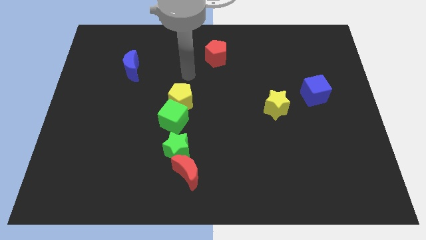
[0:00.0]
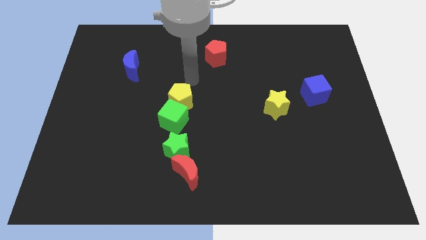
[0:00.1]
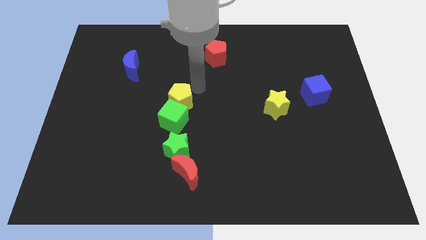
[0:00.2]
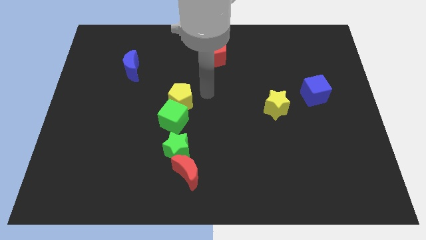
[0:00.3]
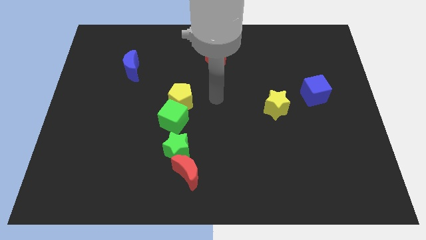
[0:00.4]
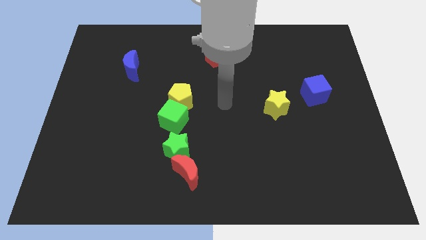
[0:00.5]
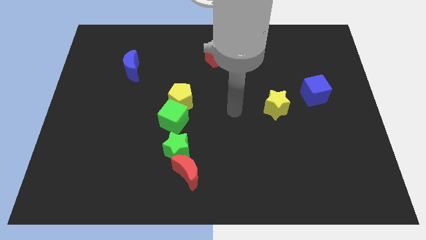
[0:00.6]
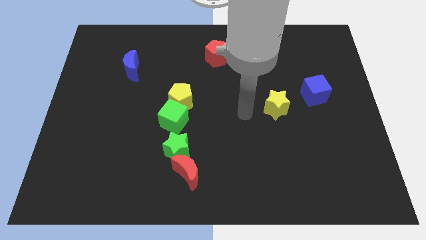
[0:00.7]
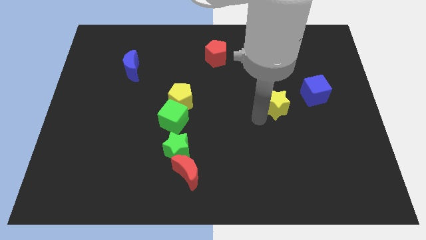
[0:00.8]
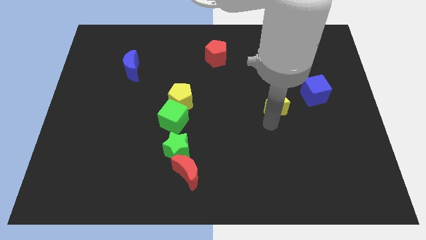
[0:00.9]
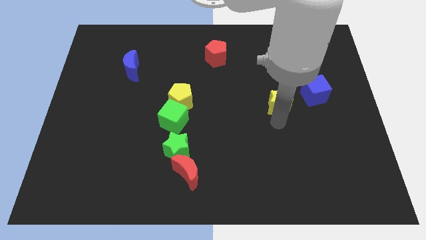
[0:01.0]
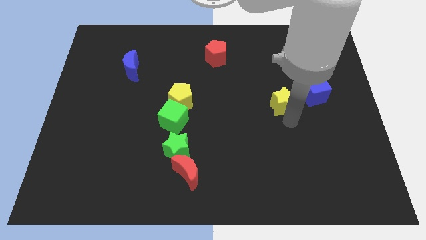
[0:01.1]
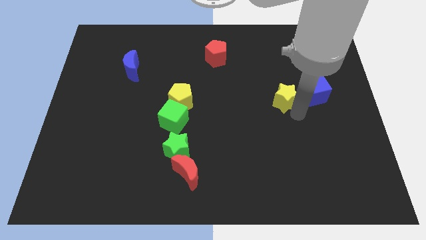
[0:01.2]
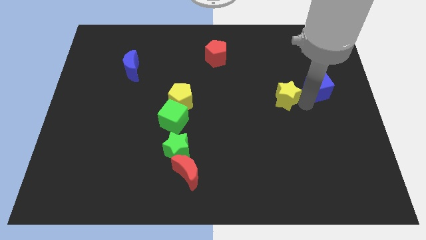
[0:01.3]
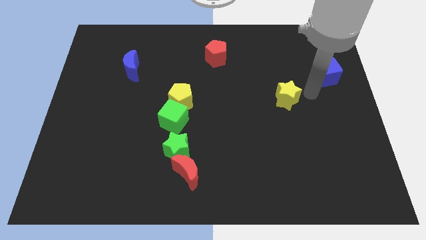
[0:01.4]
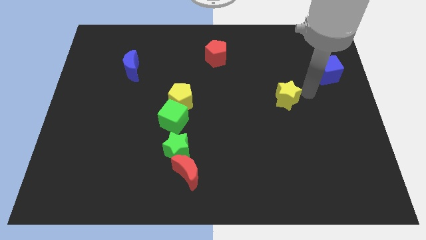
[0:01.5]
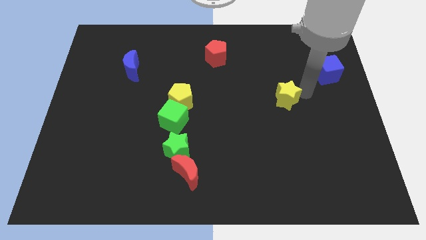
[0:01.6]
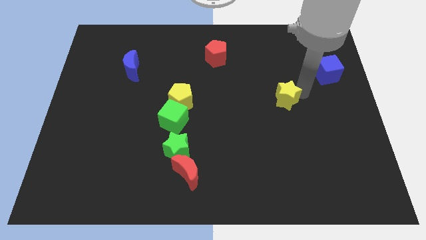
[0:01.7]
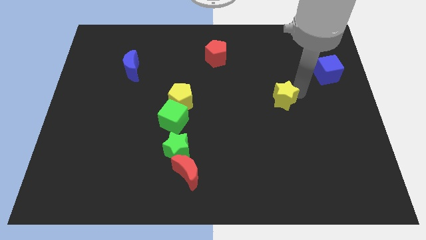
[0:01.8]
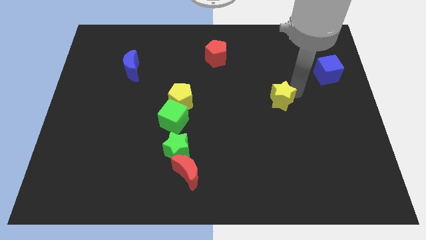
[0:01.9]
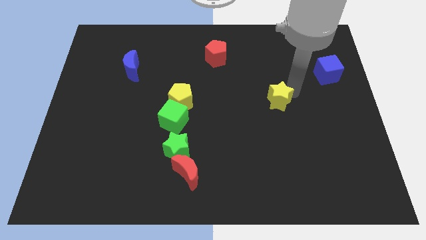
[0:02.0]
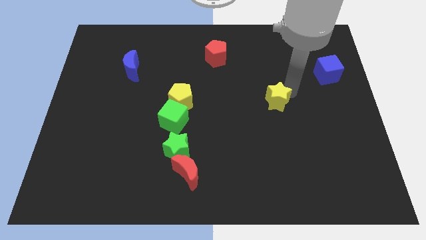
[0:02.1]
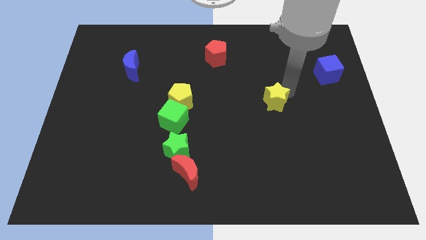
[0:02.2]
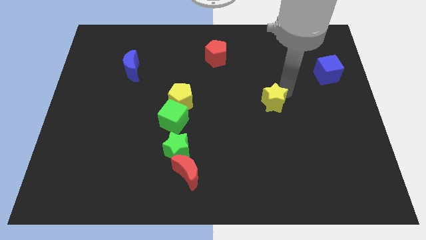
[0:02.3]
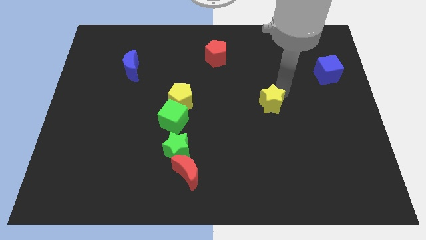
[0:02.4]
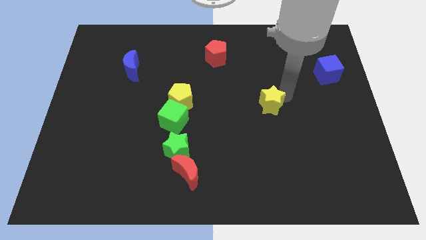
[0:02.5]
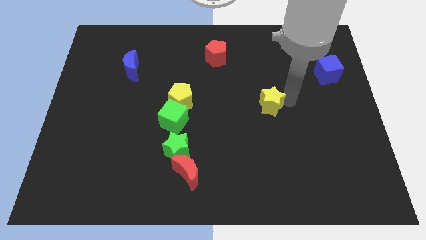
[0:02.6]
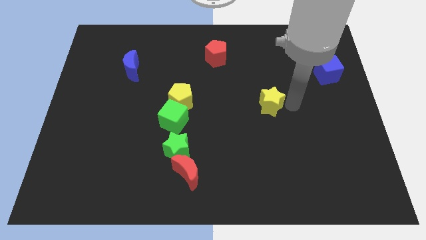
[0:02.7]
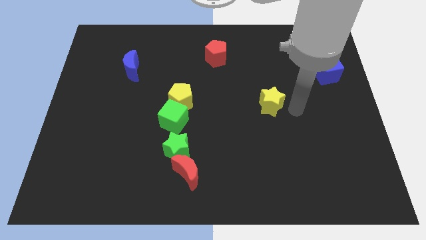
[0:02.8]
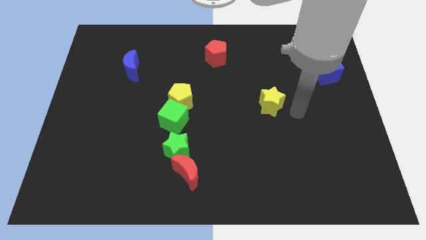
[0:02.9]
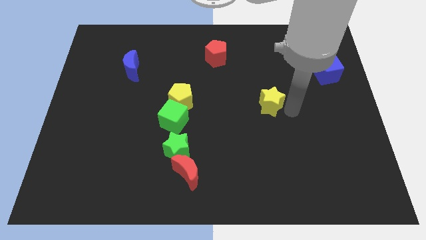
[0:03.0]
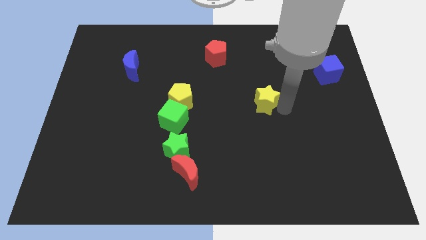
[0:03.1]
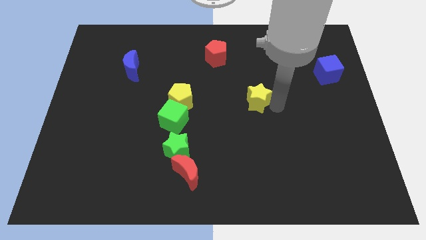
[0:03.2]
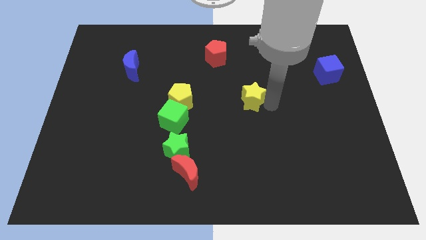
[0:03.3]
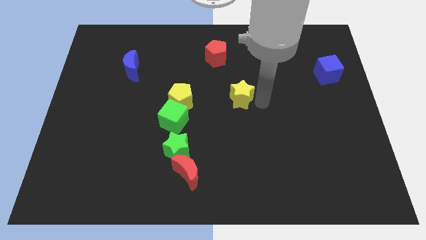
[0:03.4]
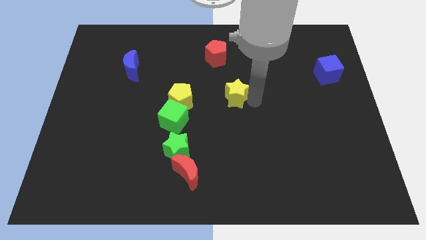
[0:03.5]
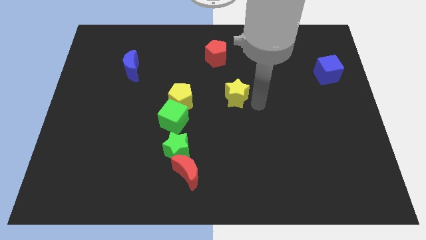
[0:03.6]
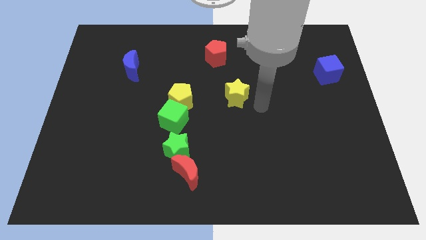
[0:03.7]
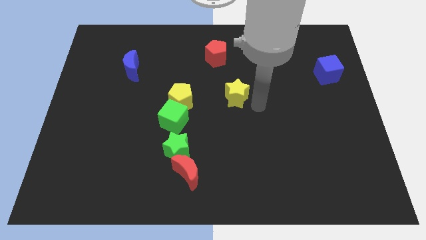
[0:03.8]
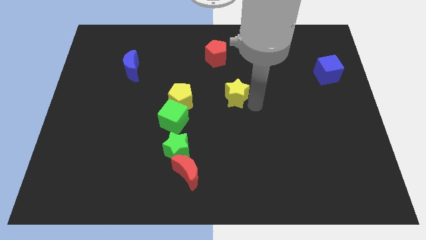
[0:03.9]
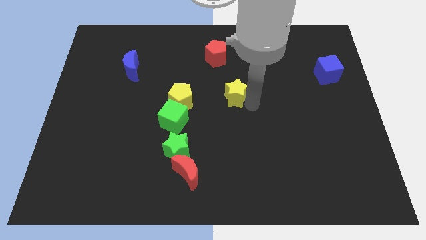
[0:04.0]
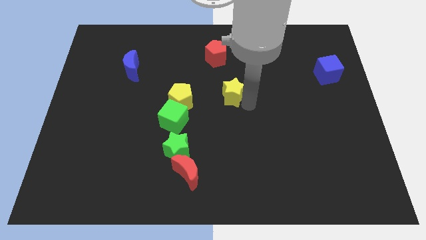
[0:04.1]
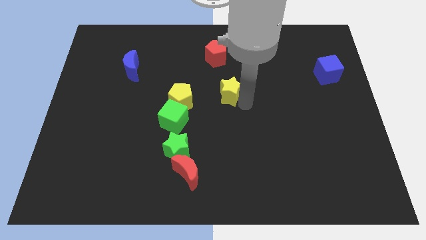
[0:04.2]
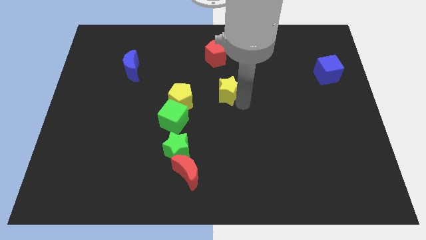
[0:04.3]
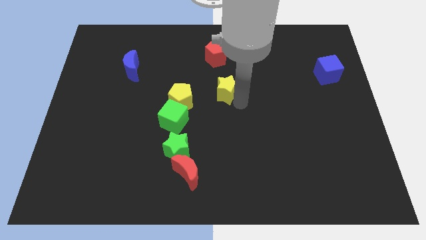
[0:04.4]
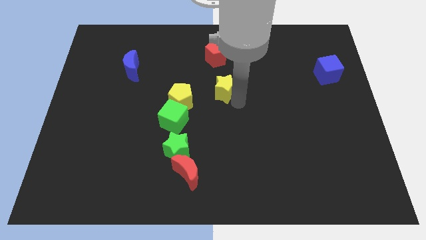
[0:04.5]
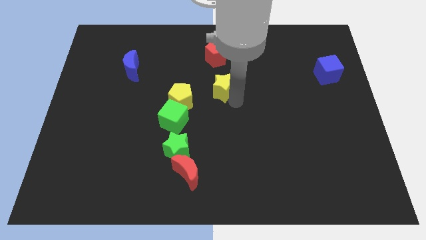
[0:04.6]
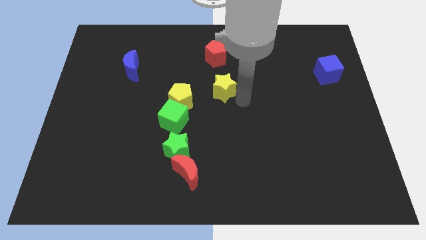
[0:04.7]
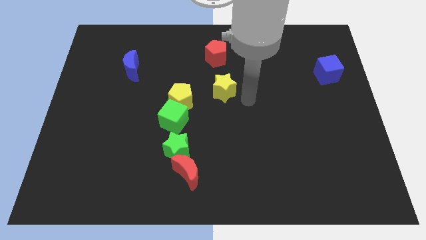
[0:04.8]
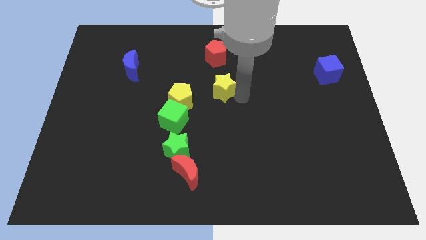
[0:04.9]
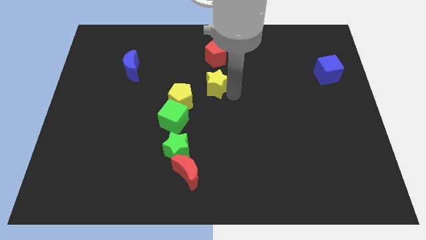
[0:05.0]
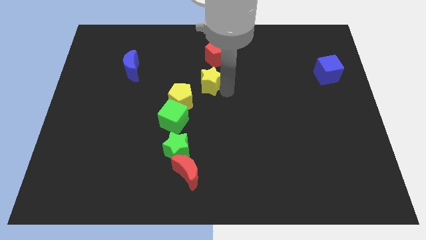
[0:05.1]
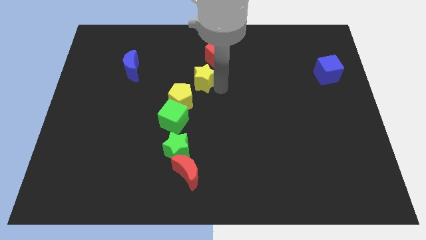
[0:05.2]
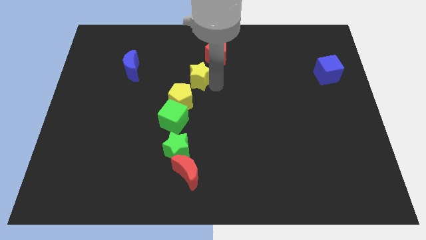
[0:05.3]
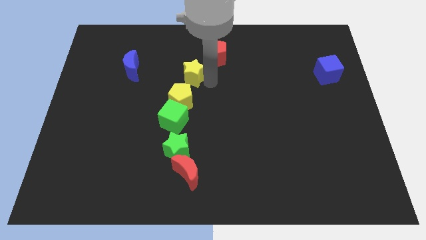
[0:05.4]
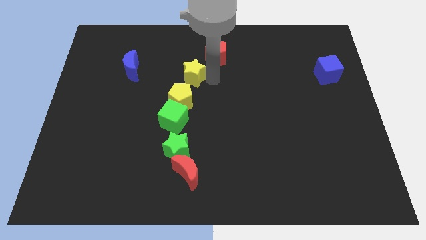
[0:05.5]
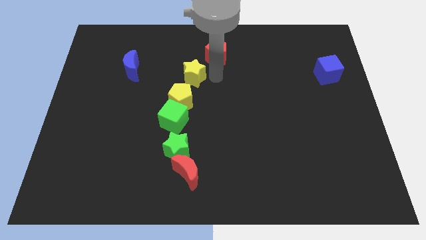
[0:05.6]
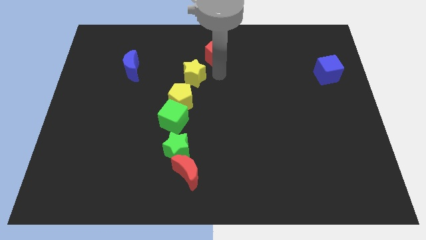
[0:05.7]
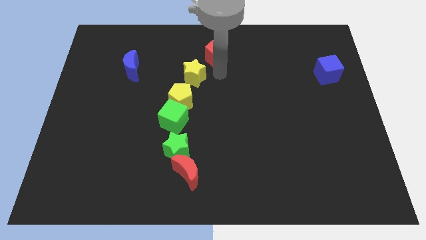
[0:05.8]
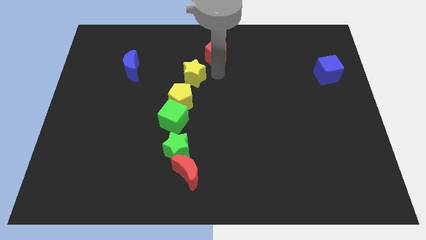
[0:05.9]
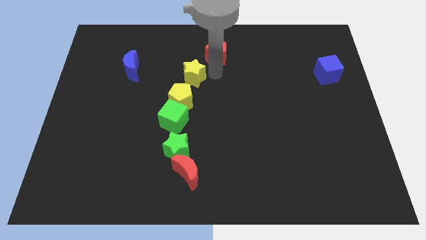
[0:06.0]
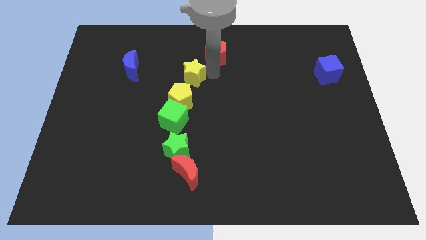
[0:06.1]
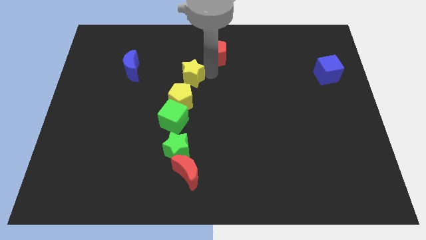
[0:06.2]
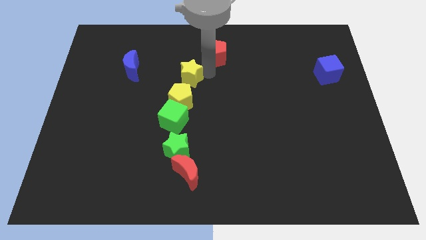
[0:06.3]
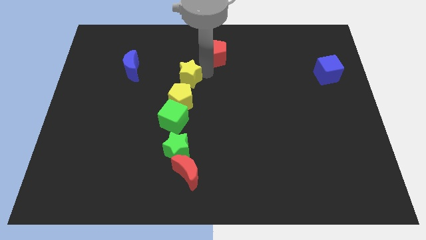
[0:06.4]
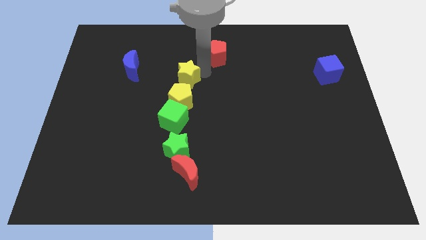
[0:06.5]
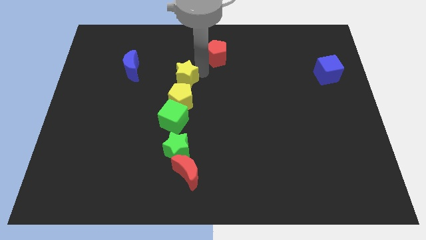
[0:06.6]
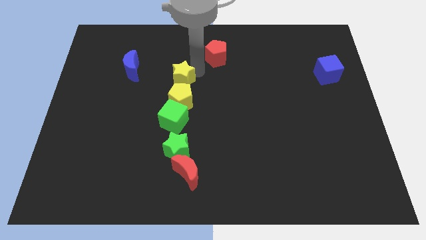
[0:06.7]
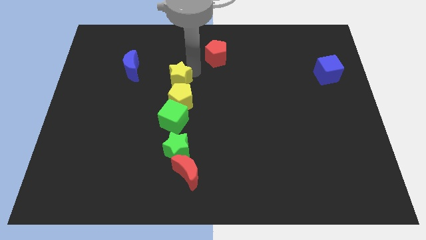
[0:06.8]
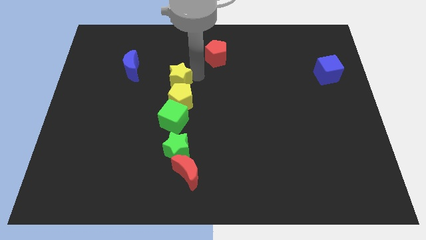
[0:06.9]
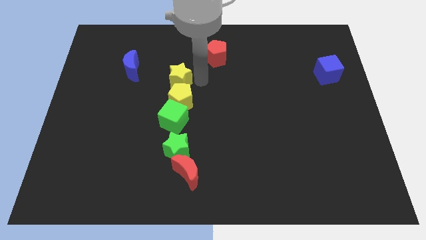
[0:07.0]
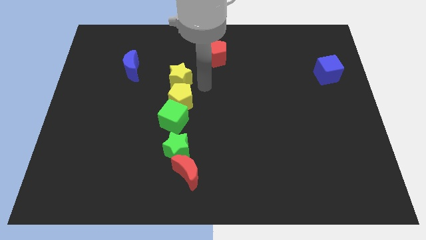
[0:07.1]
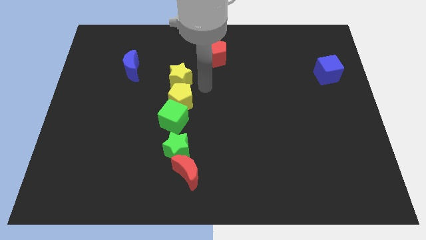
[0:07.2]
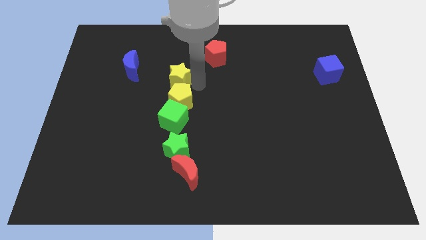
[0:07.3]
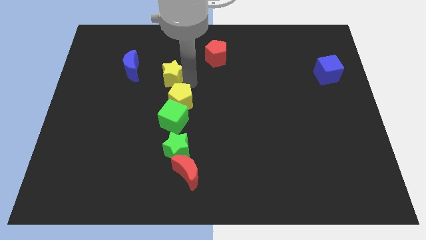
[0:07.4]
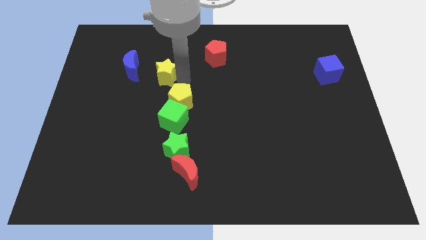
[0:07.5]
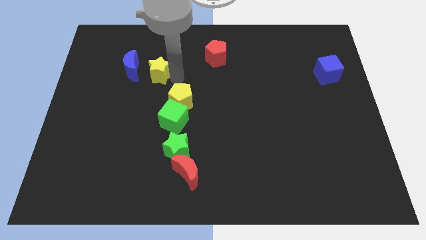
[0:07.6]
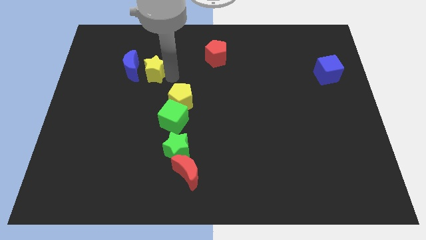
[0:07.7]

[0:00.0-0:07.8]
move the yellow star next to the blue moon
